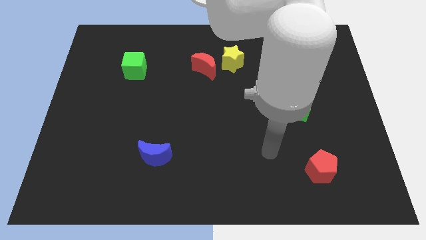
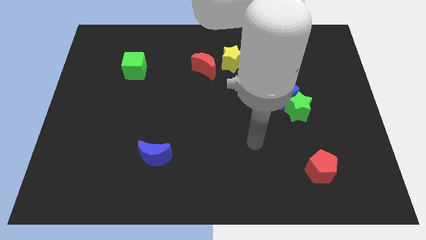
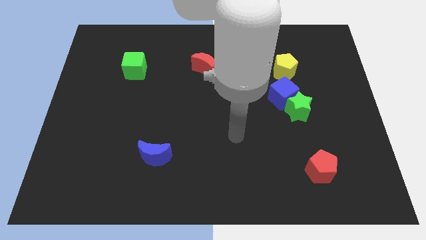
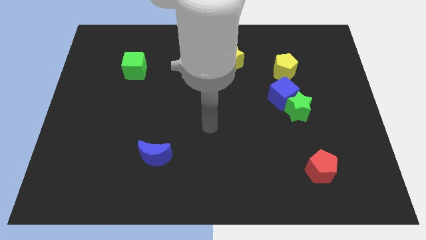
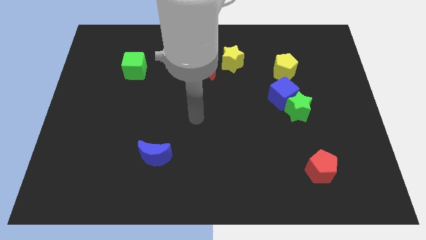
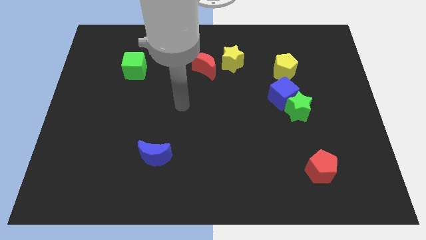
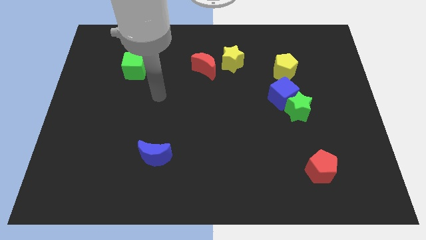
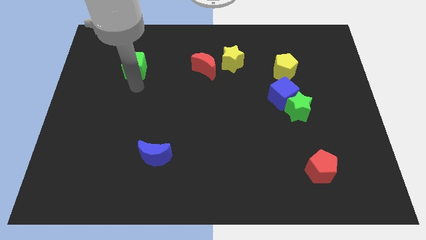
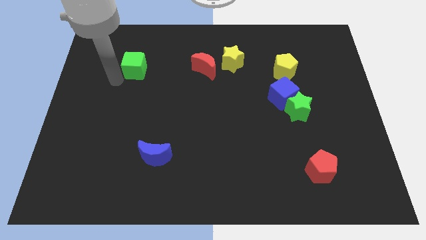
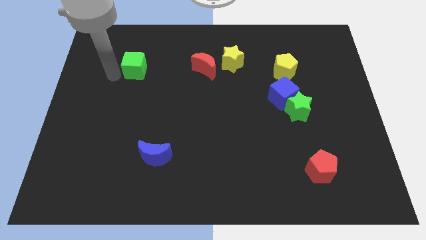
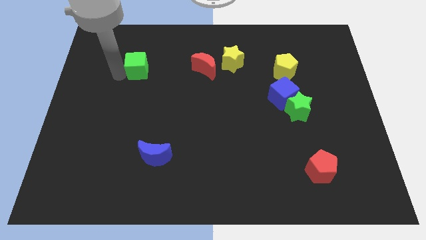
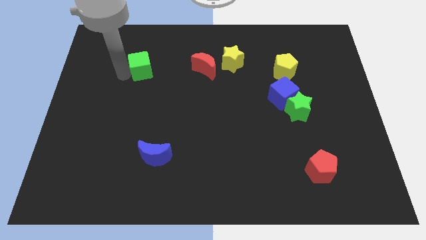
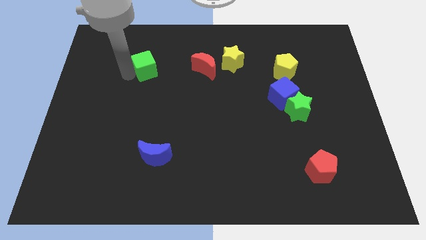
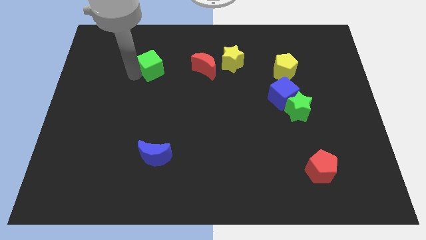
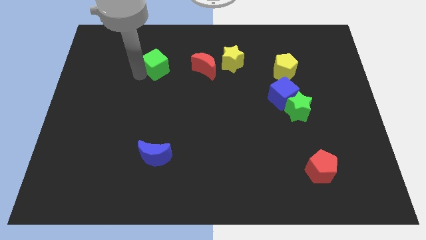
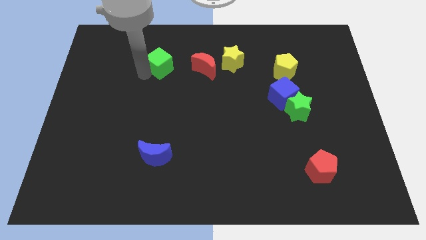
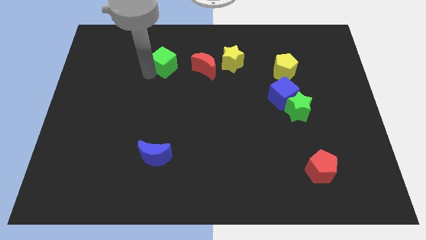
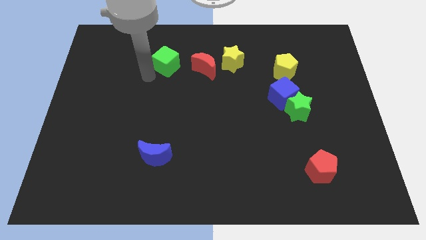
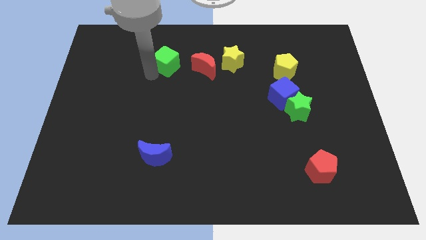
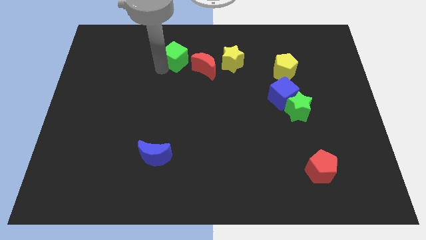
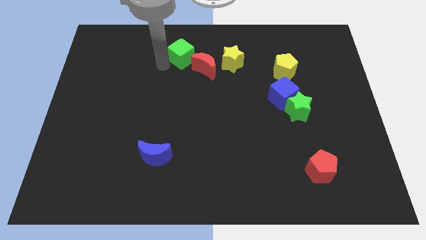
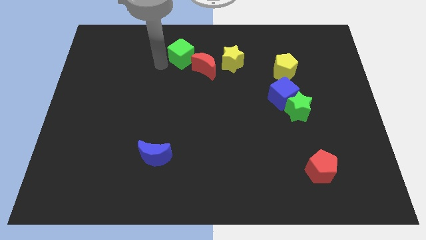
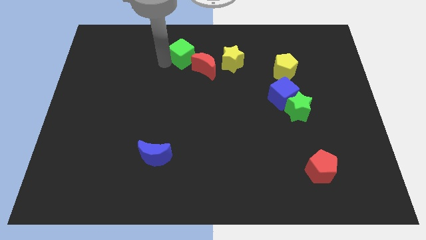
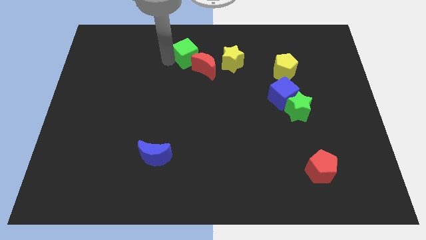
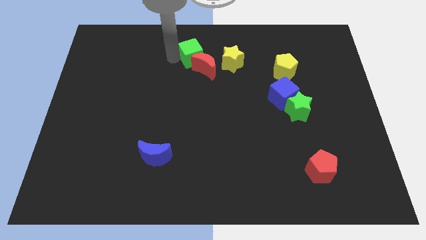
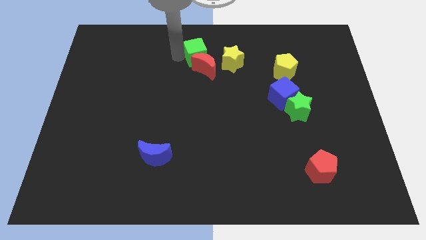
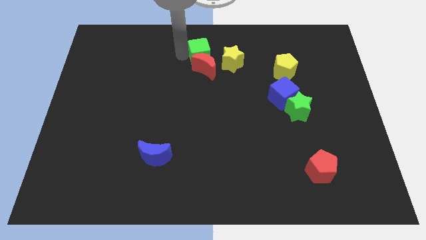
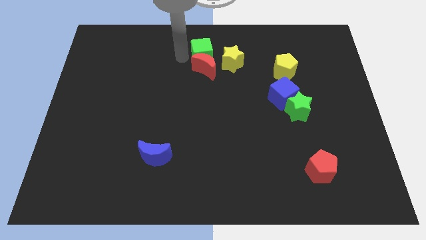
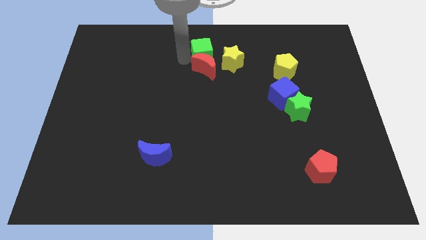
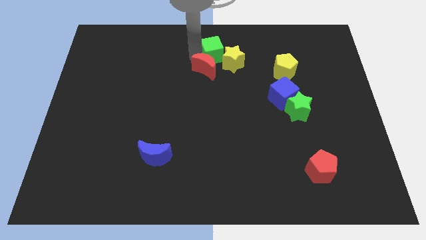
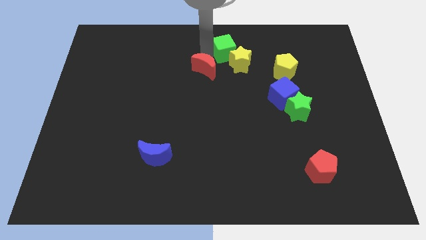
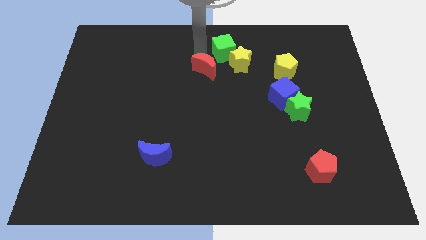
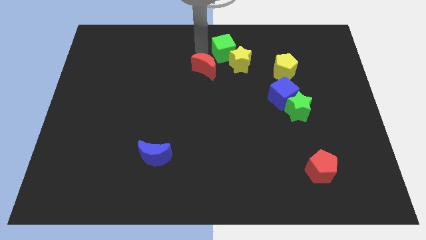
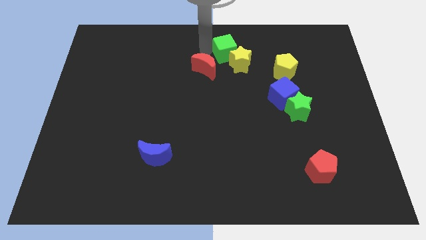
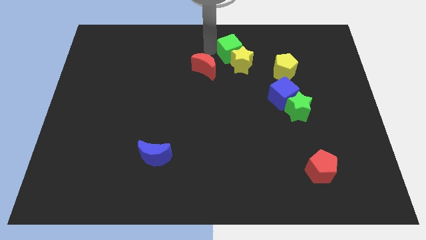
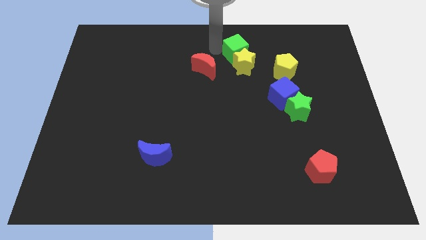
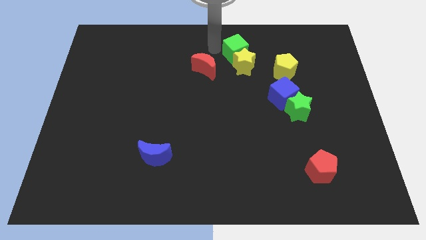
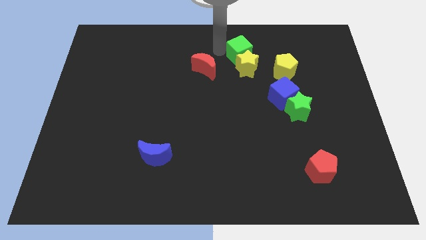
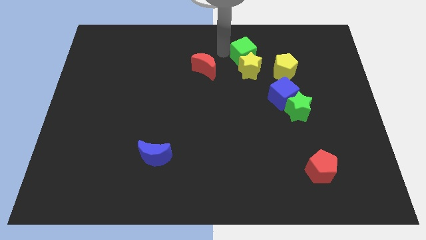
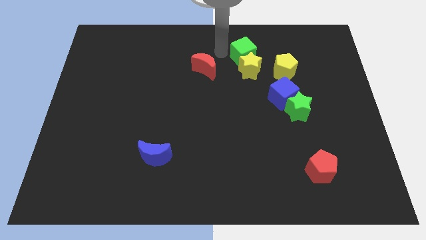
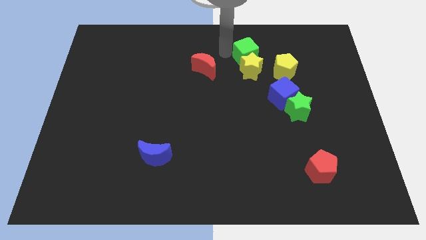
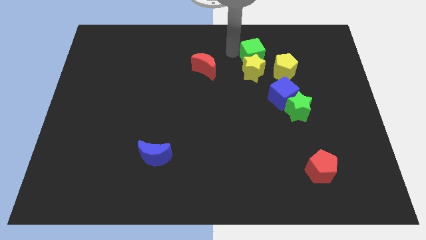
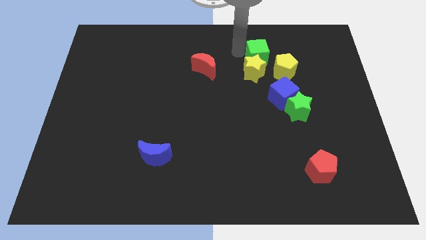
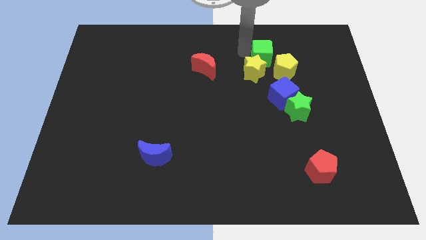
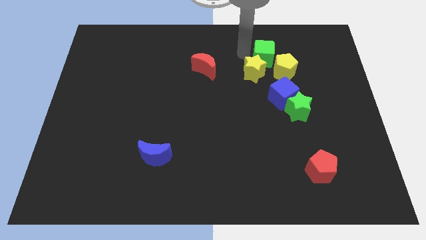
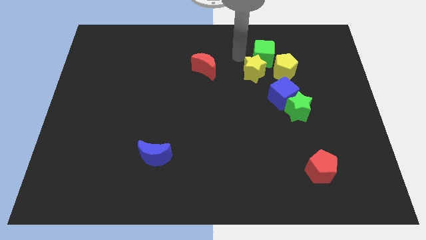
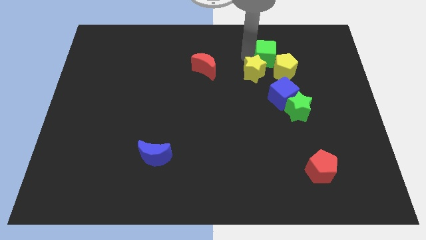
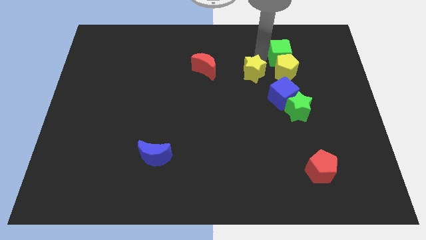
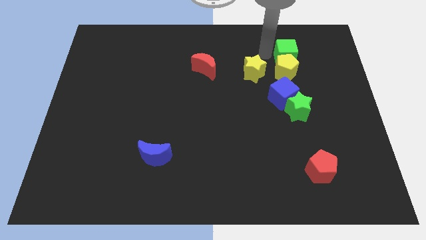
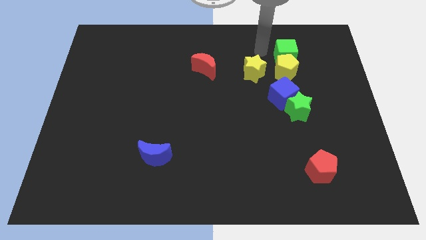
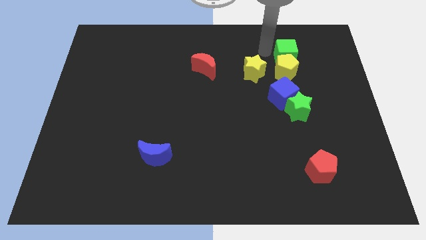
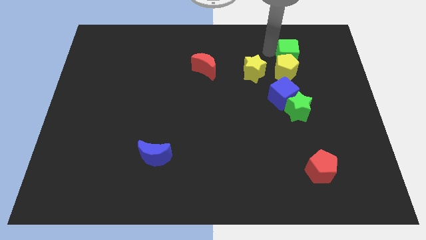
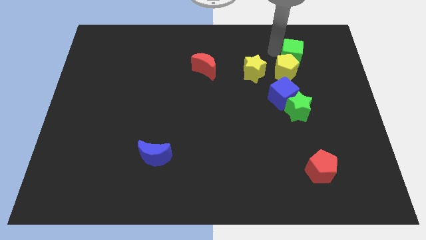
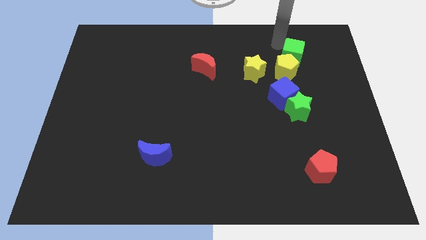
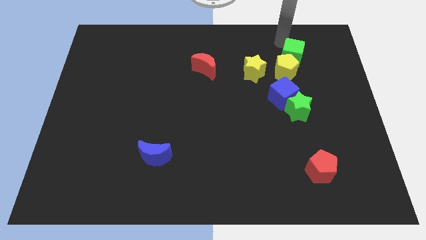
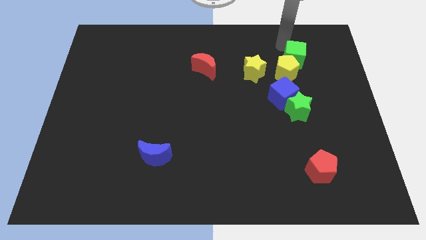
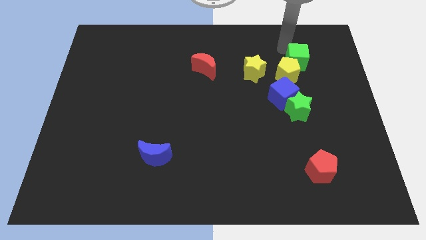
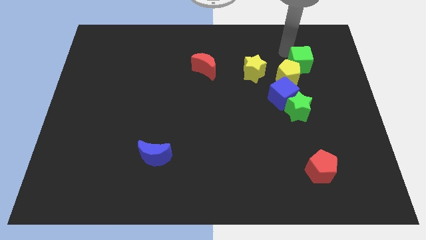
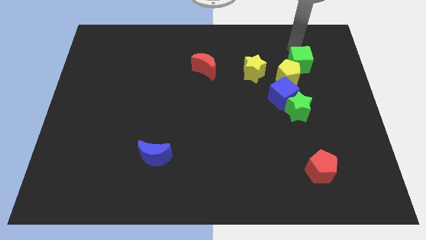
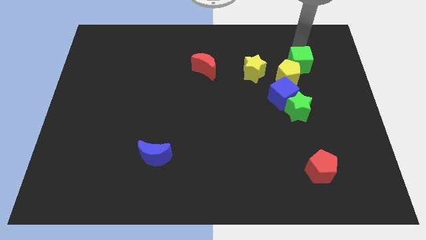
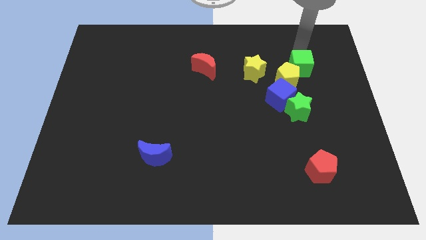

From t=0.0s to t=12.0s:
put the green cube to the top right side of the blue cube
